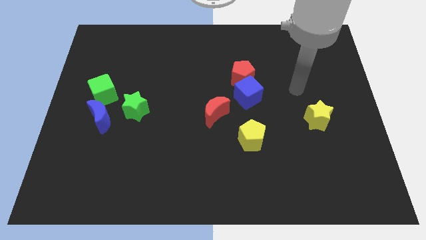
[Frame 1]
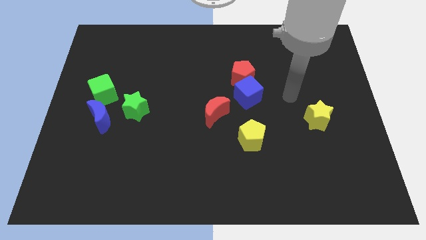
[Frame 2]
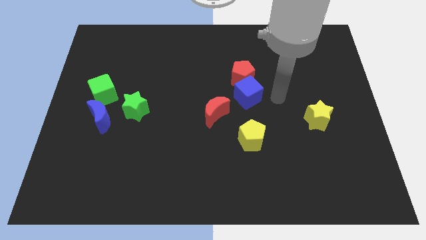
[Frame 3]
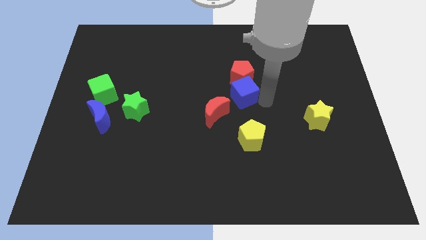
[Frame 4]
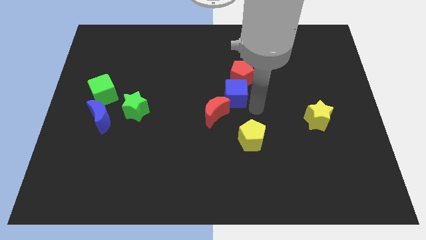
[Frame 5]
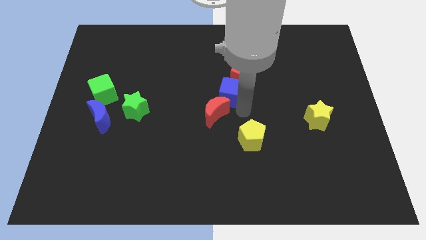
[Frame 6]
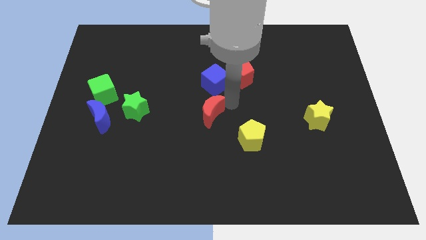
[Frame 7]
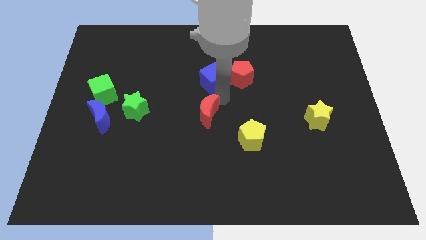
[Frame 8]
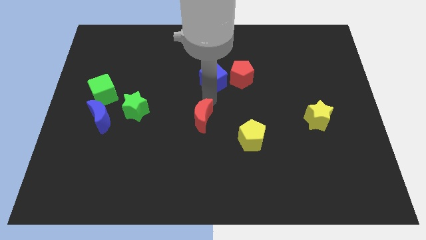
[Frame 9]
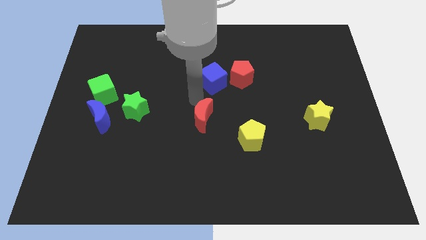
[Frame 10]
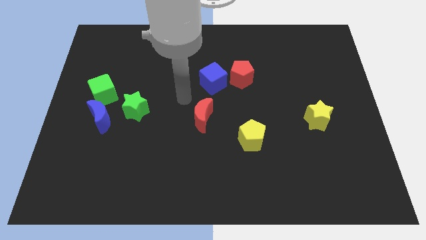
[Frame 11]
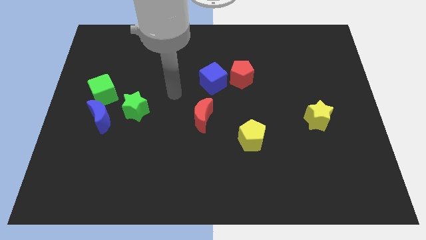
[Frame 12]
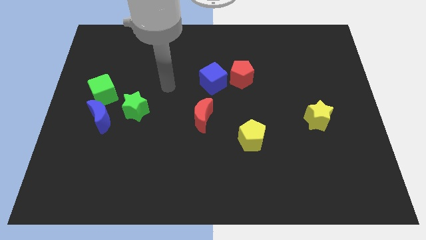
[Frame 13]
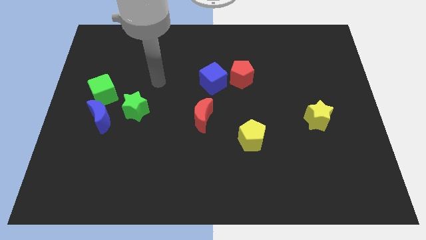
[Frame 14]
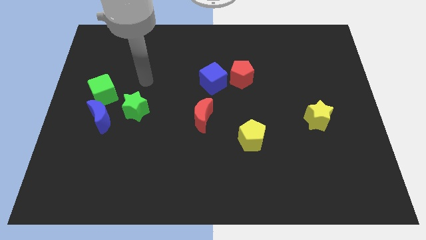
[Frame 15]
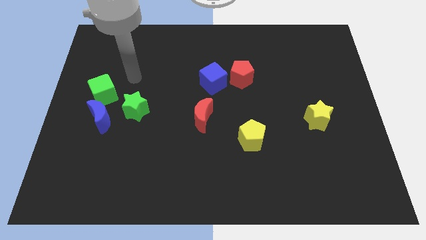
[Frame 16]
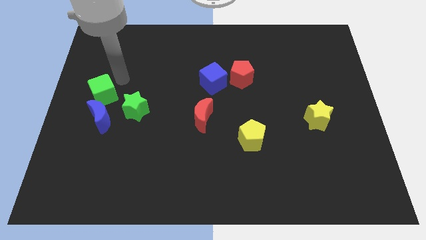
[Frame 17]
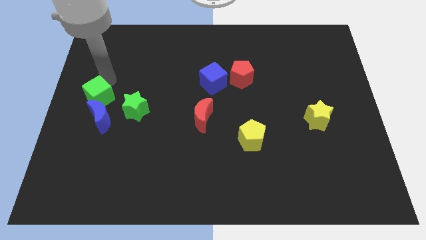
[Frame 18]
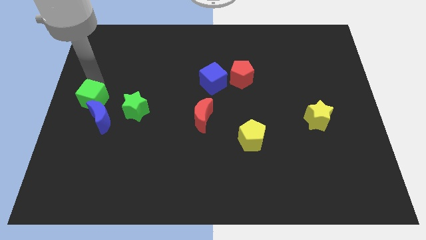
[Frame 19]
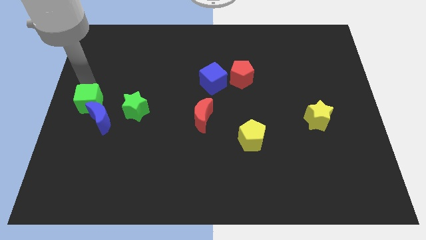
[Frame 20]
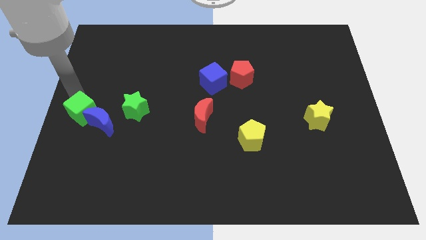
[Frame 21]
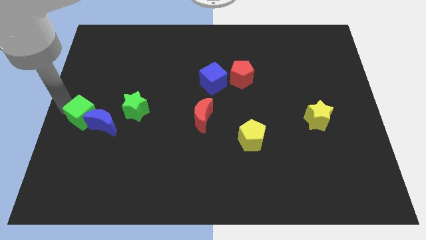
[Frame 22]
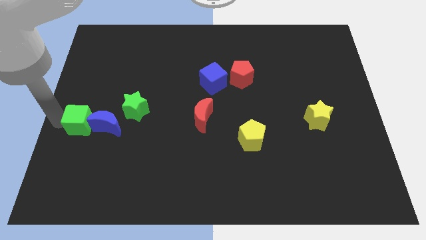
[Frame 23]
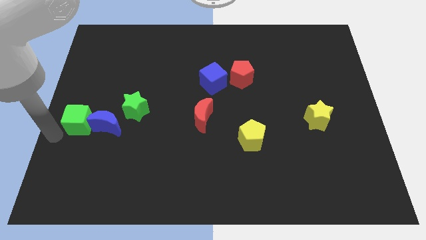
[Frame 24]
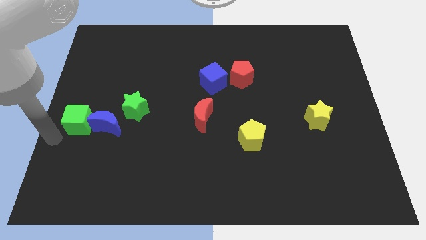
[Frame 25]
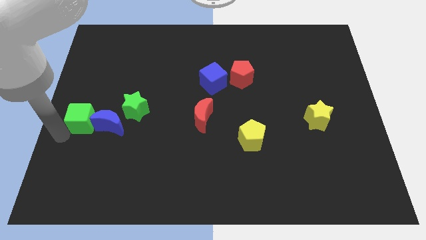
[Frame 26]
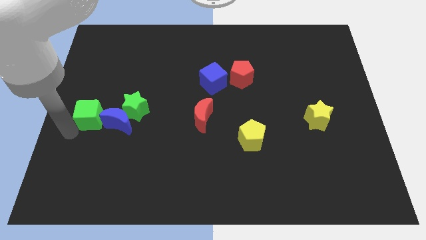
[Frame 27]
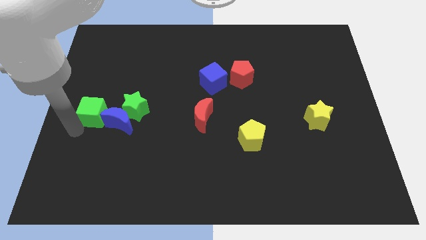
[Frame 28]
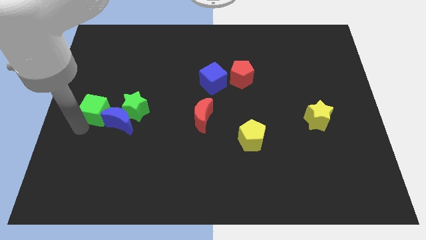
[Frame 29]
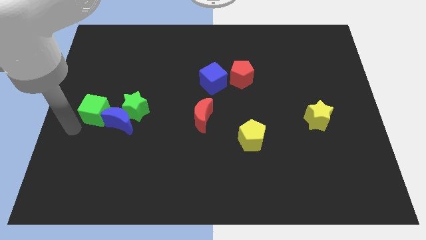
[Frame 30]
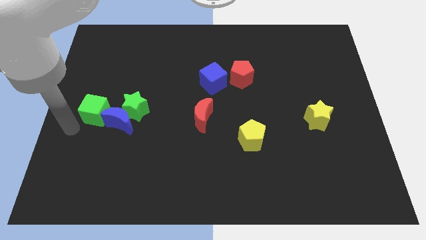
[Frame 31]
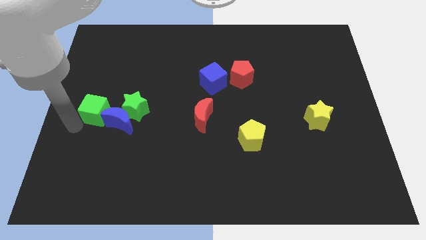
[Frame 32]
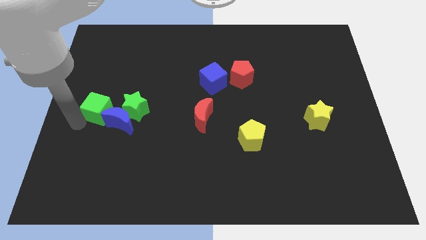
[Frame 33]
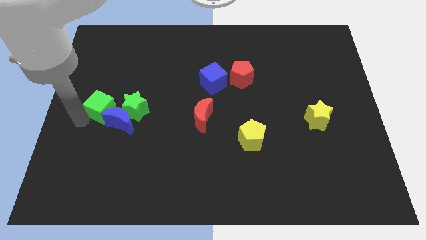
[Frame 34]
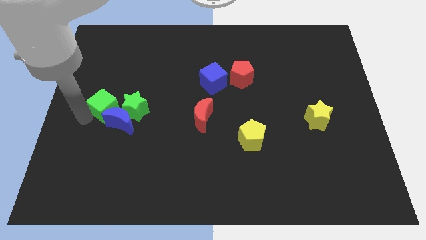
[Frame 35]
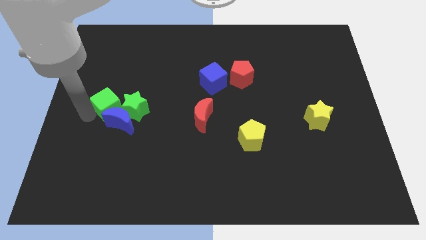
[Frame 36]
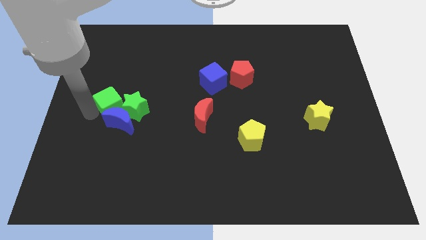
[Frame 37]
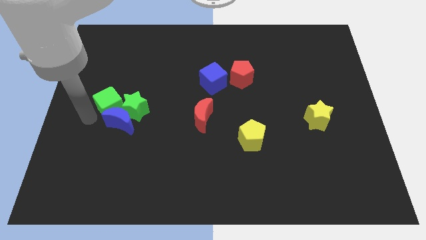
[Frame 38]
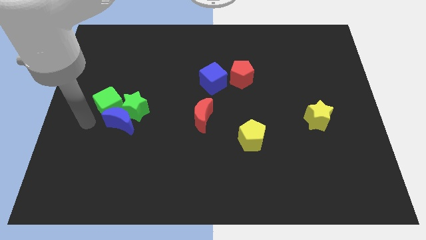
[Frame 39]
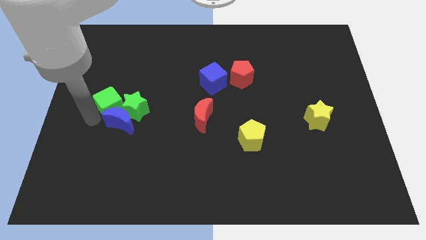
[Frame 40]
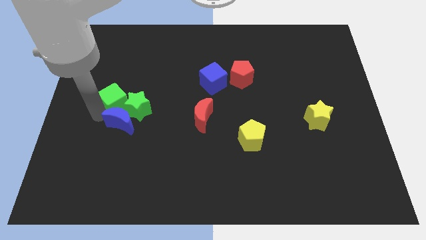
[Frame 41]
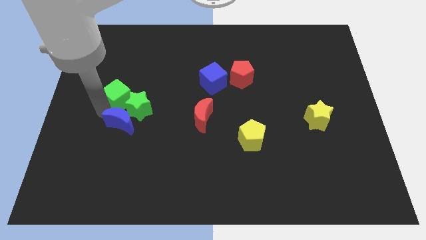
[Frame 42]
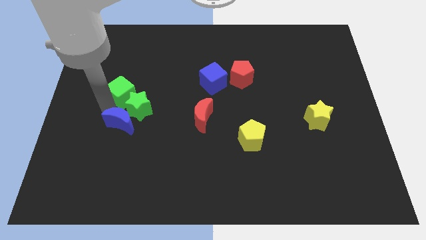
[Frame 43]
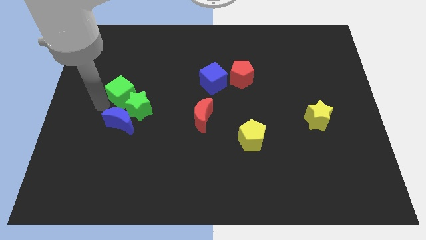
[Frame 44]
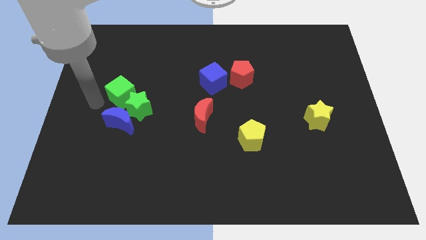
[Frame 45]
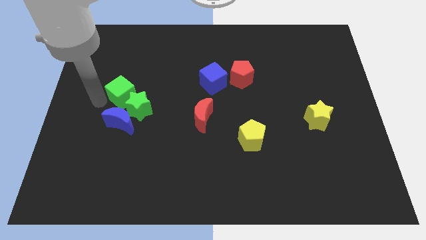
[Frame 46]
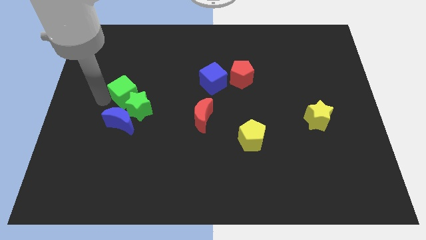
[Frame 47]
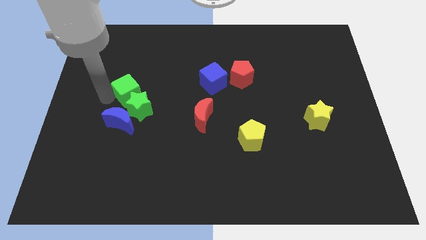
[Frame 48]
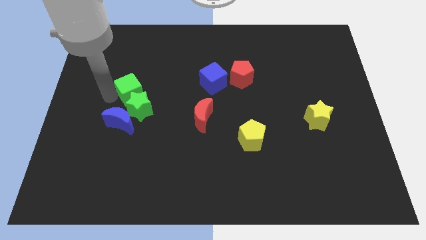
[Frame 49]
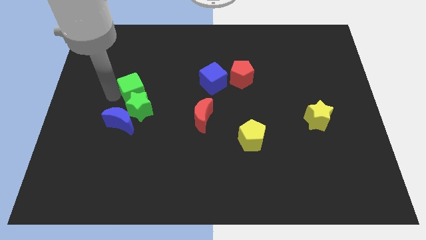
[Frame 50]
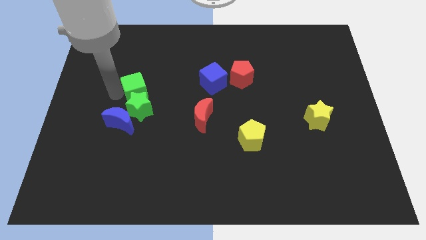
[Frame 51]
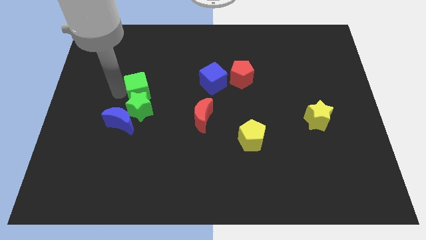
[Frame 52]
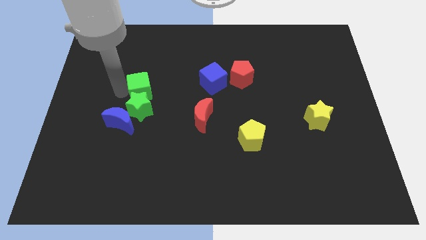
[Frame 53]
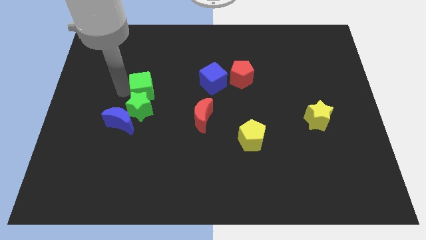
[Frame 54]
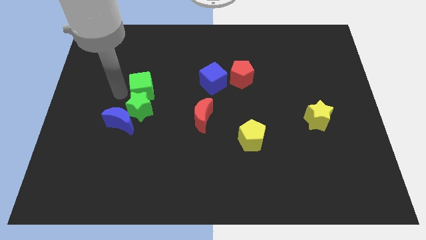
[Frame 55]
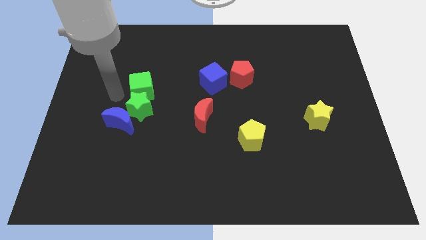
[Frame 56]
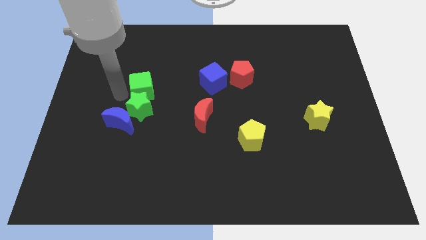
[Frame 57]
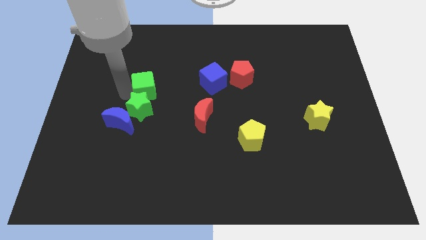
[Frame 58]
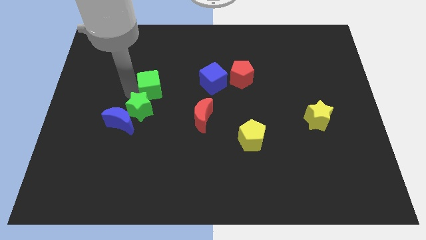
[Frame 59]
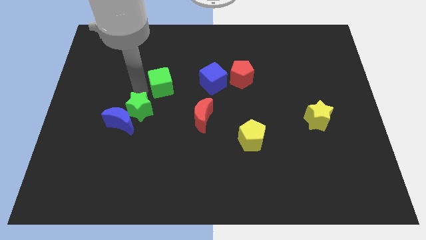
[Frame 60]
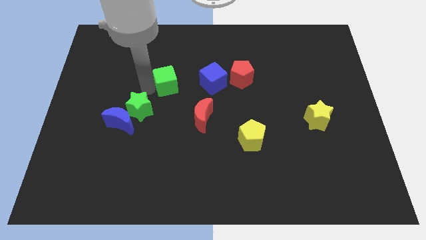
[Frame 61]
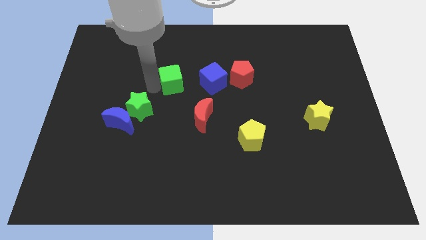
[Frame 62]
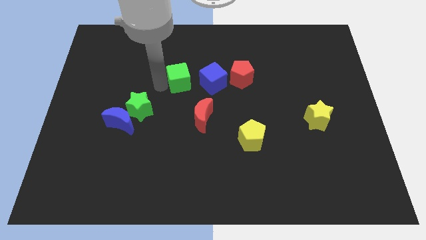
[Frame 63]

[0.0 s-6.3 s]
move the green cube just left of the red pentagon

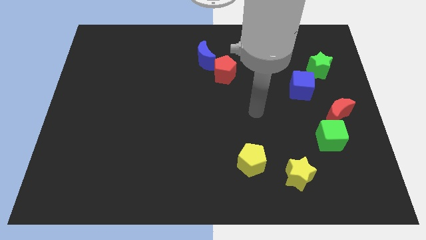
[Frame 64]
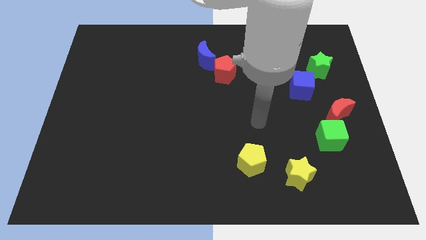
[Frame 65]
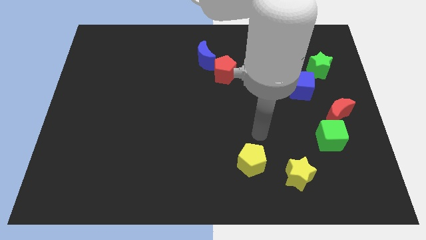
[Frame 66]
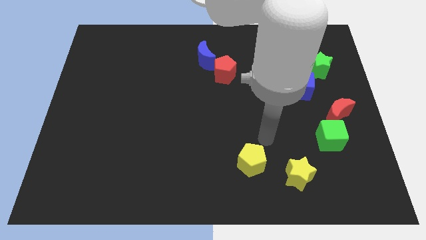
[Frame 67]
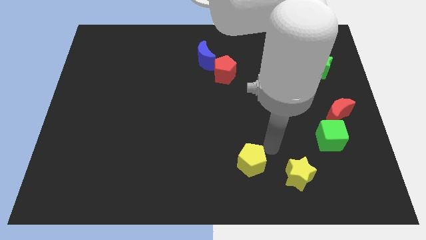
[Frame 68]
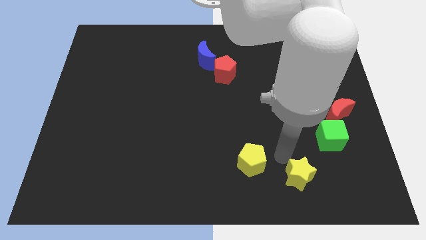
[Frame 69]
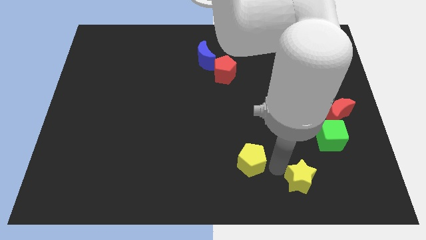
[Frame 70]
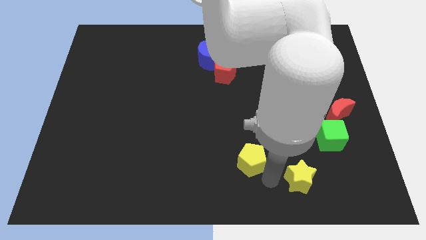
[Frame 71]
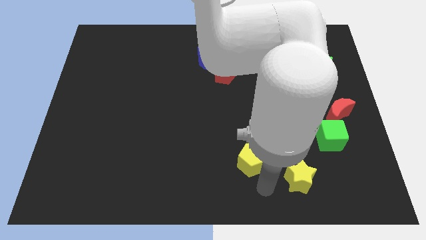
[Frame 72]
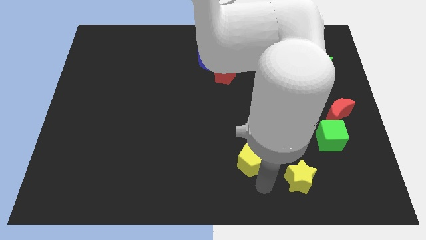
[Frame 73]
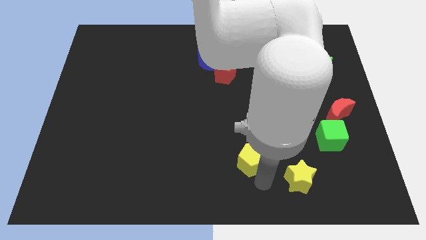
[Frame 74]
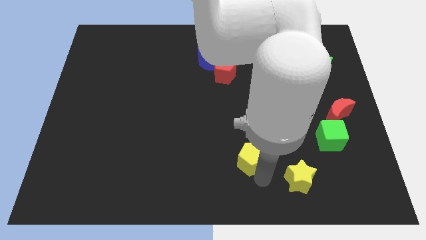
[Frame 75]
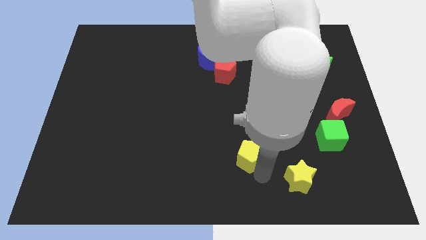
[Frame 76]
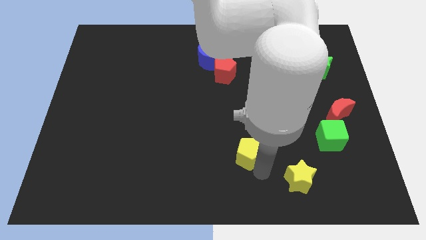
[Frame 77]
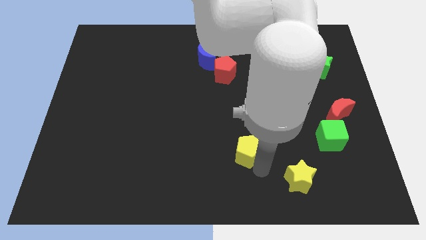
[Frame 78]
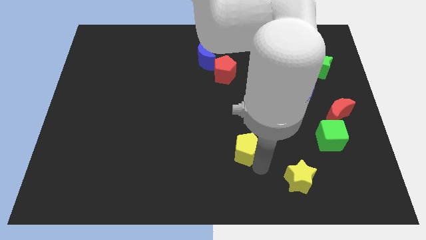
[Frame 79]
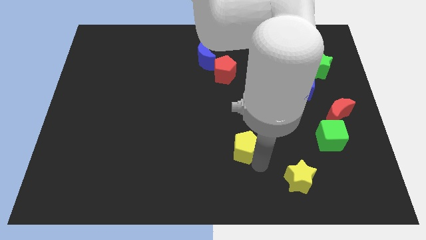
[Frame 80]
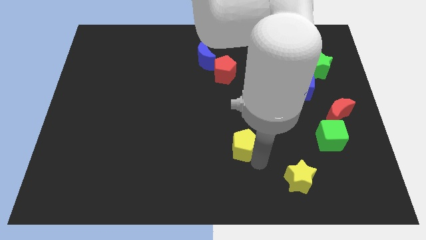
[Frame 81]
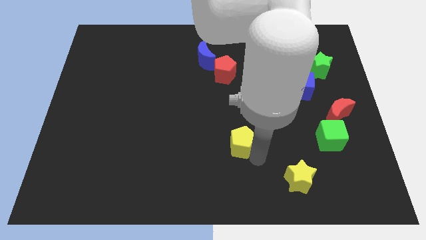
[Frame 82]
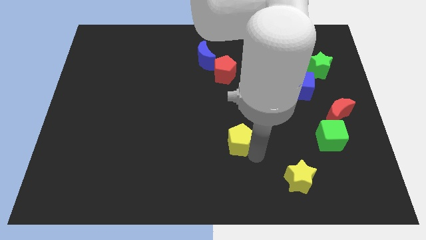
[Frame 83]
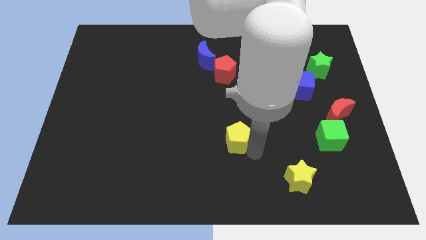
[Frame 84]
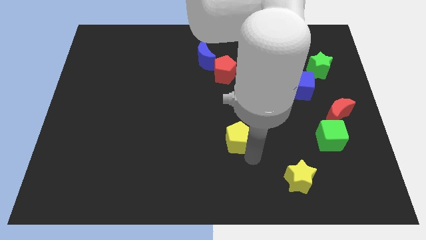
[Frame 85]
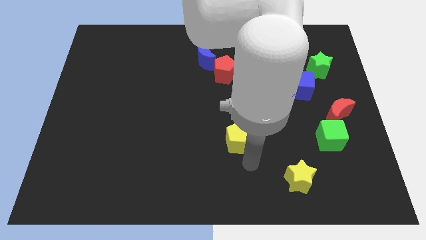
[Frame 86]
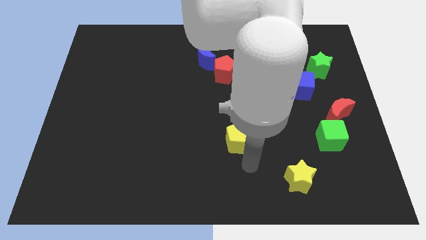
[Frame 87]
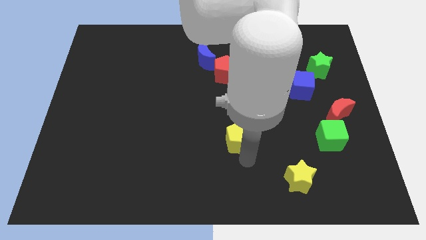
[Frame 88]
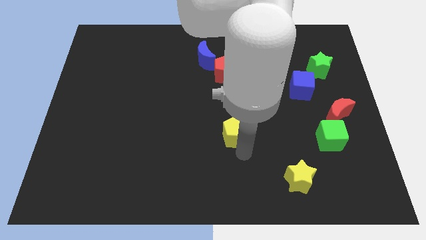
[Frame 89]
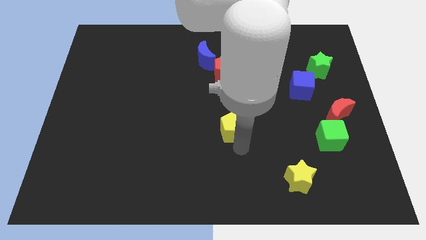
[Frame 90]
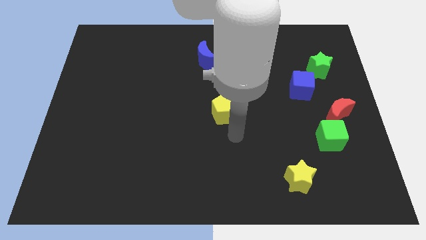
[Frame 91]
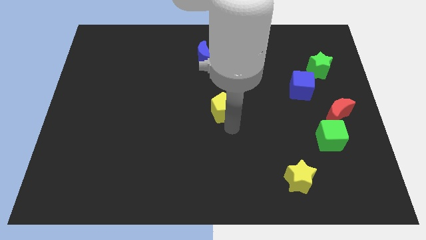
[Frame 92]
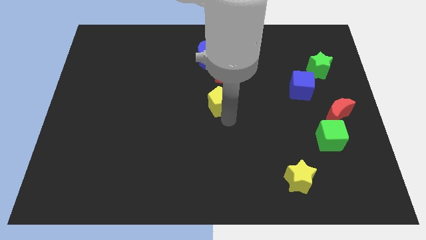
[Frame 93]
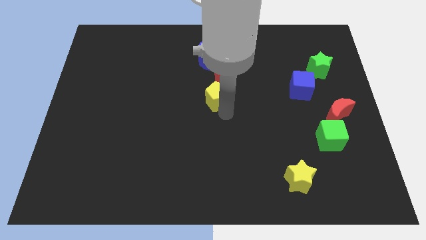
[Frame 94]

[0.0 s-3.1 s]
slide the yellow pentagon diagonally down and to the left of the red pentagon
